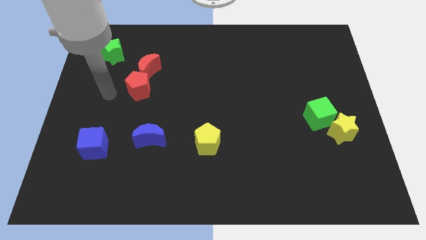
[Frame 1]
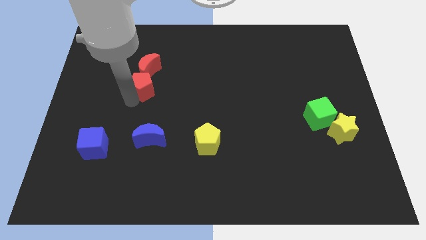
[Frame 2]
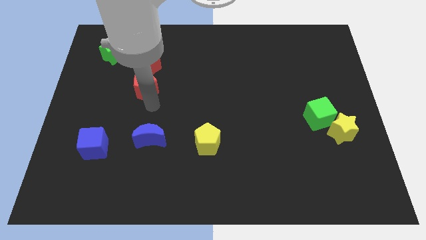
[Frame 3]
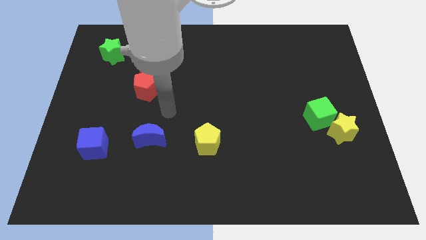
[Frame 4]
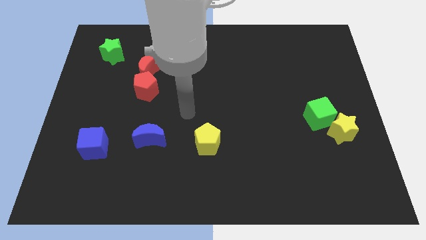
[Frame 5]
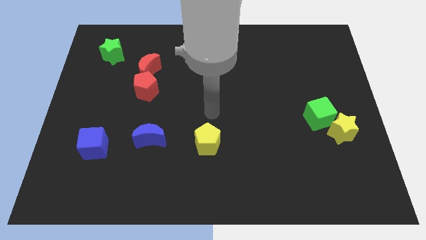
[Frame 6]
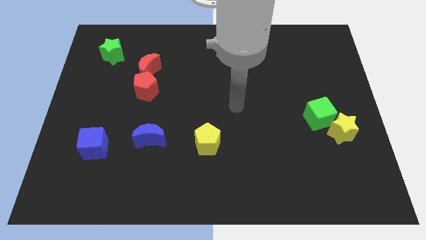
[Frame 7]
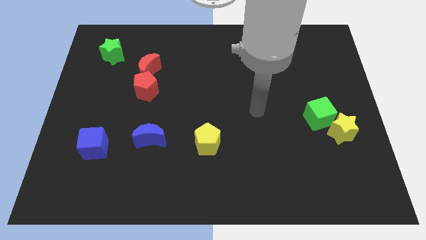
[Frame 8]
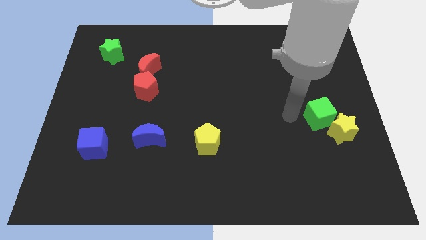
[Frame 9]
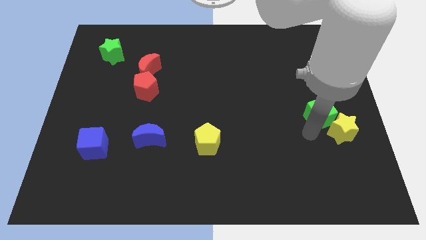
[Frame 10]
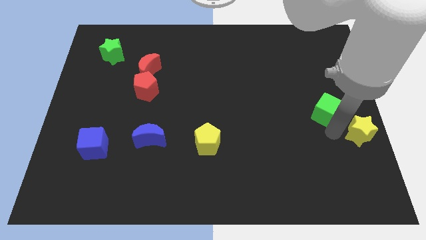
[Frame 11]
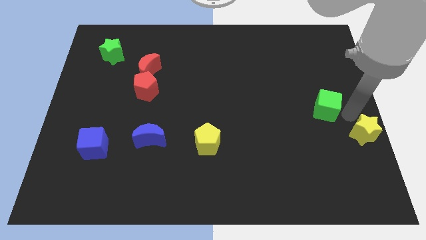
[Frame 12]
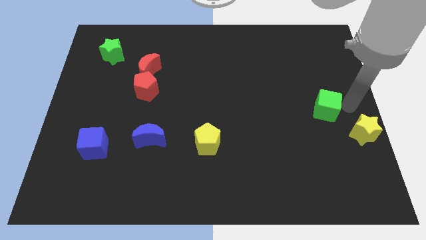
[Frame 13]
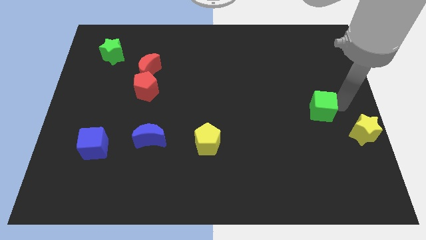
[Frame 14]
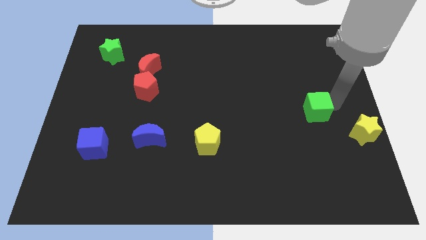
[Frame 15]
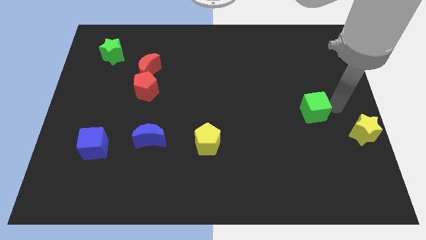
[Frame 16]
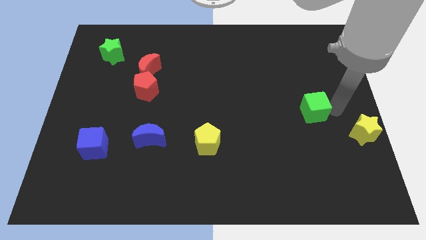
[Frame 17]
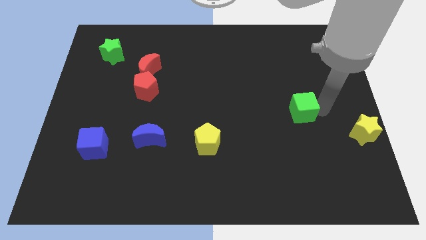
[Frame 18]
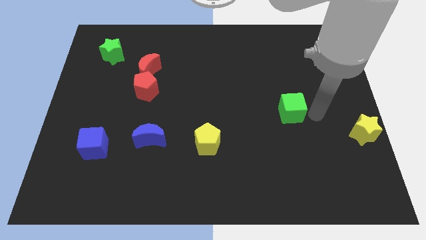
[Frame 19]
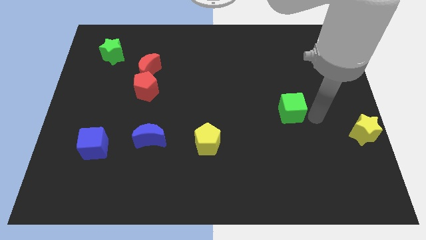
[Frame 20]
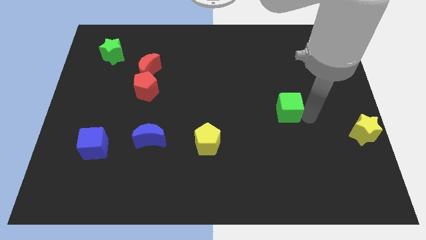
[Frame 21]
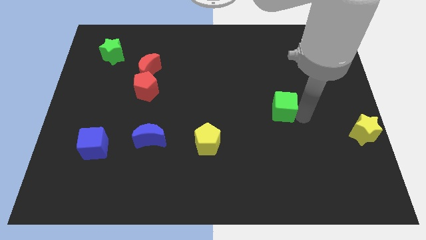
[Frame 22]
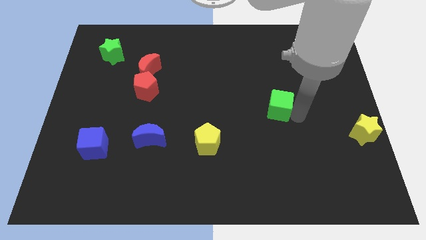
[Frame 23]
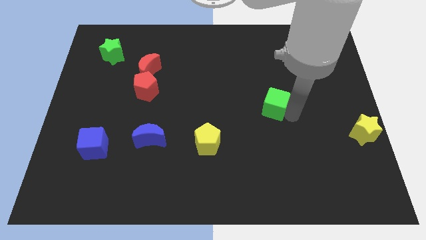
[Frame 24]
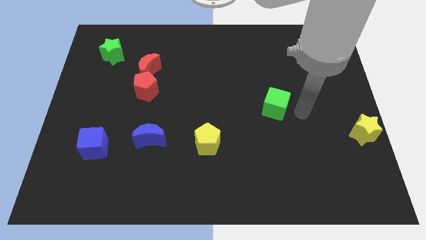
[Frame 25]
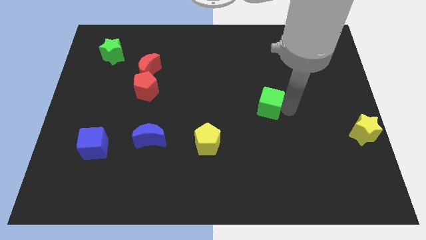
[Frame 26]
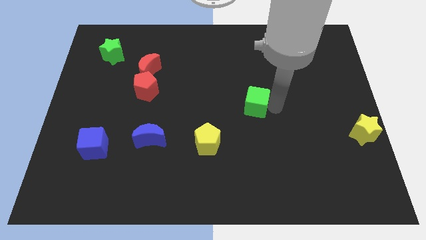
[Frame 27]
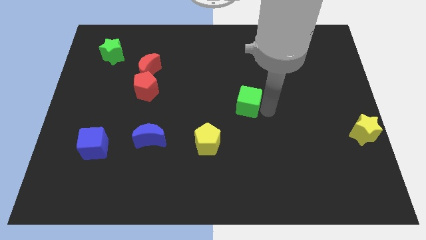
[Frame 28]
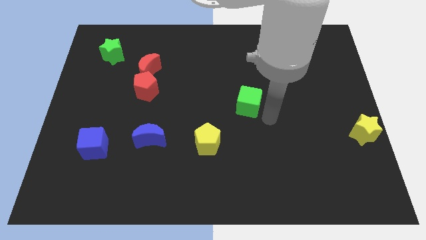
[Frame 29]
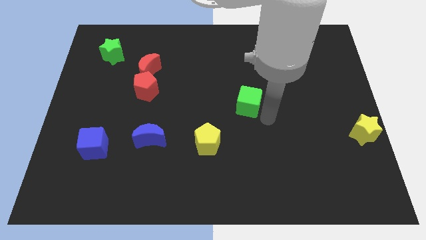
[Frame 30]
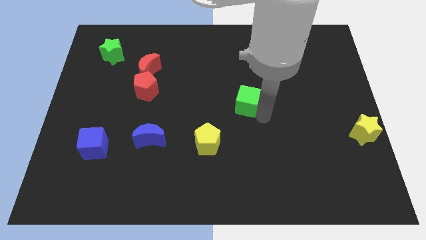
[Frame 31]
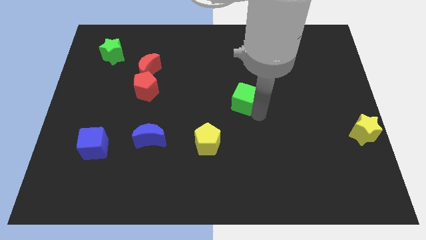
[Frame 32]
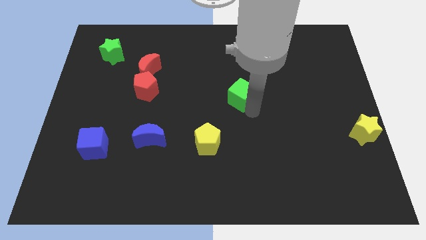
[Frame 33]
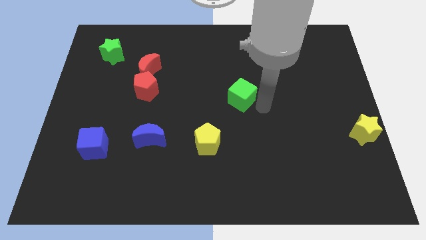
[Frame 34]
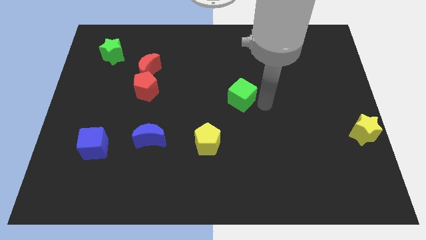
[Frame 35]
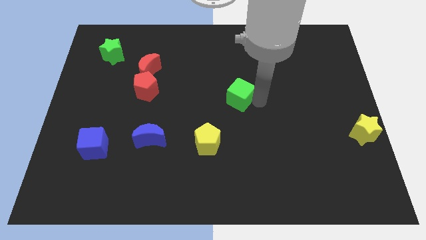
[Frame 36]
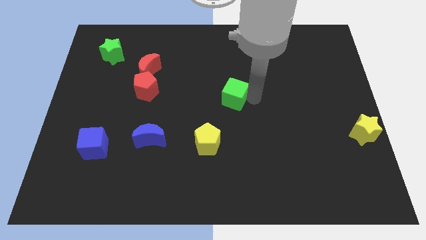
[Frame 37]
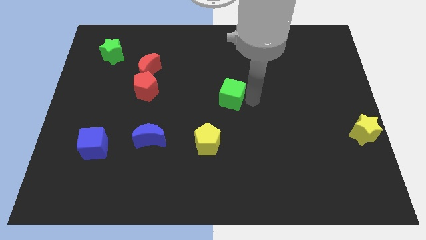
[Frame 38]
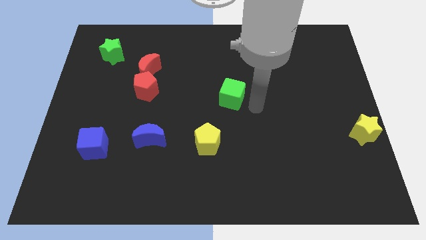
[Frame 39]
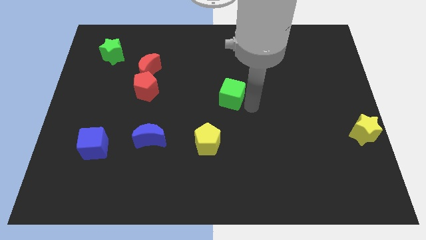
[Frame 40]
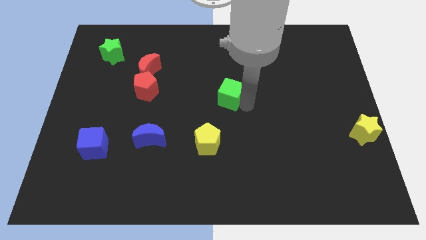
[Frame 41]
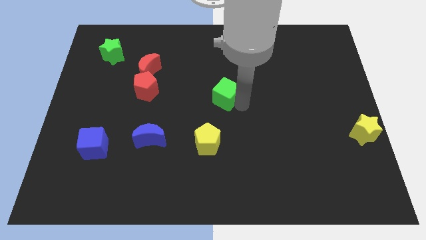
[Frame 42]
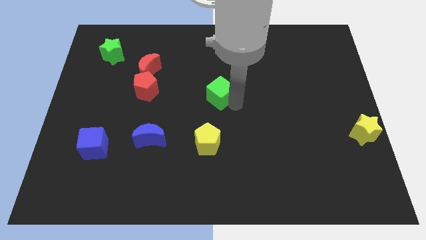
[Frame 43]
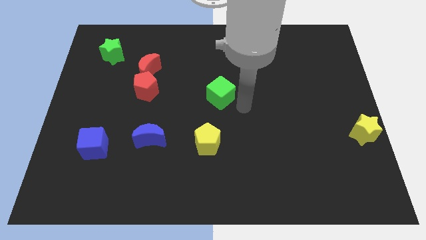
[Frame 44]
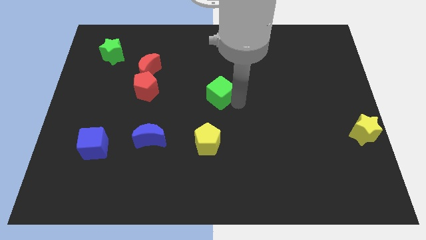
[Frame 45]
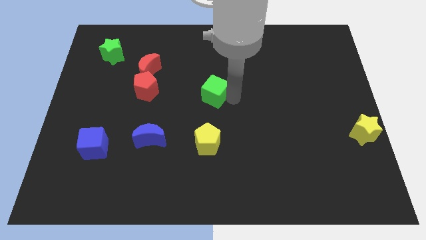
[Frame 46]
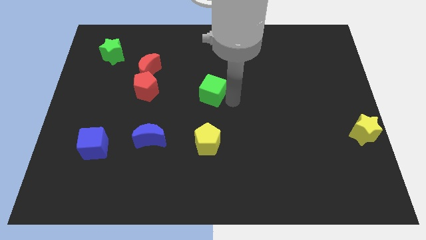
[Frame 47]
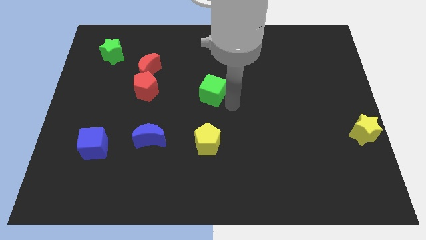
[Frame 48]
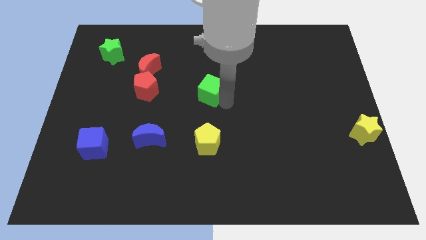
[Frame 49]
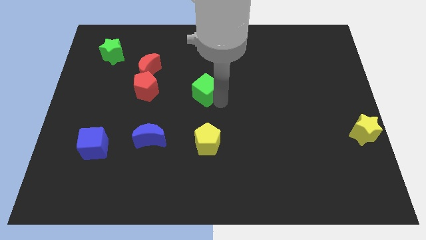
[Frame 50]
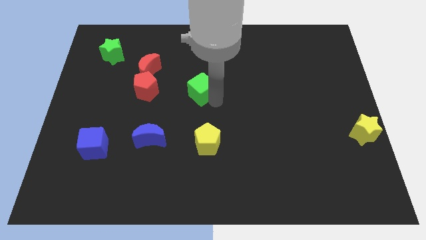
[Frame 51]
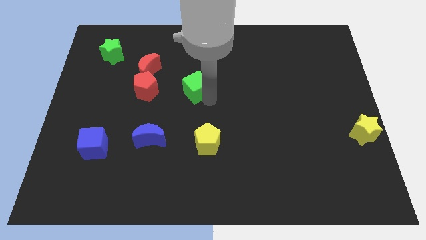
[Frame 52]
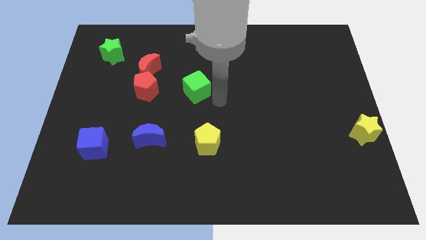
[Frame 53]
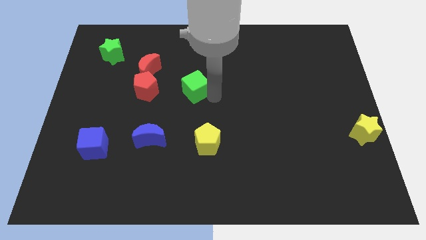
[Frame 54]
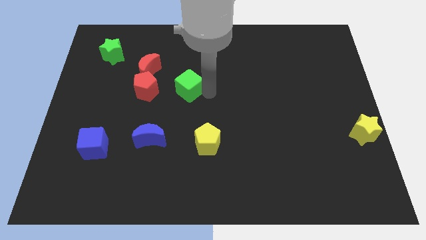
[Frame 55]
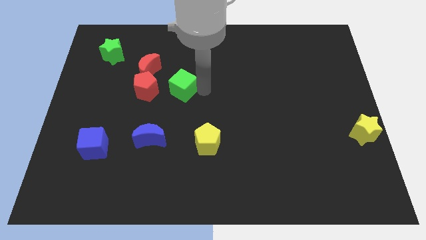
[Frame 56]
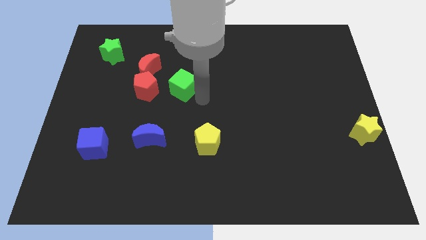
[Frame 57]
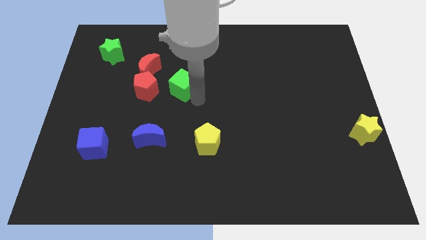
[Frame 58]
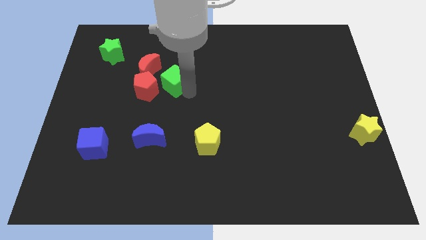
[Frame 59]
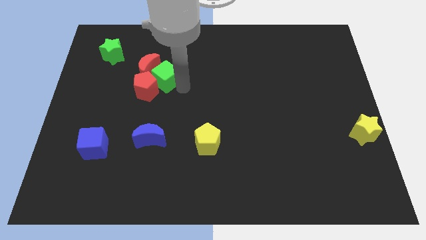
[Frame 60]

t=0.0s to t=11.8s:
put the green cube to the red moon

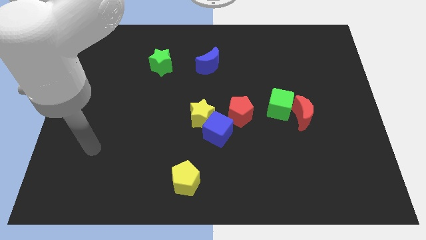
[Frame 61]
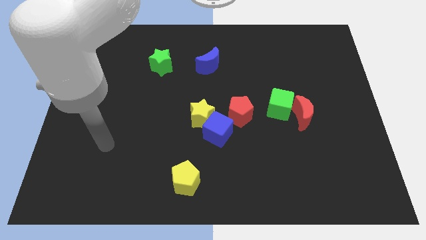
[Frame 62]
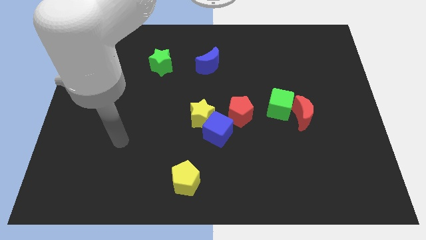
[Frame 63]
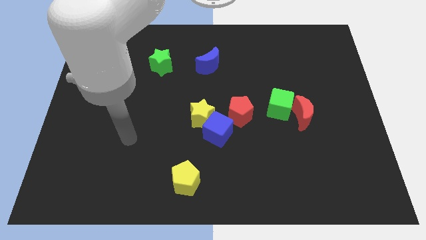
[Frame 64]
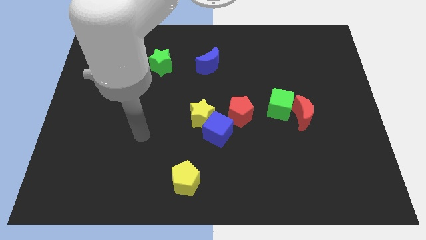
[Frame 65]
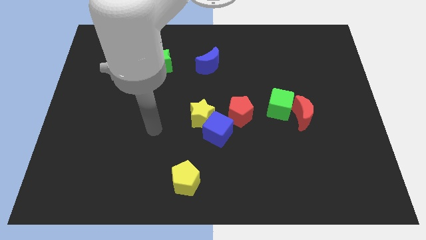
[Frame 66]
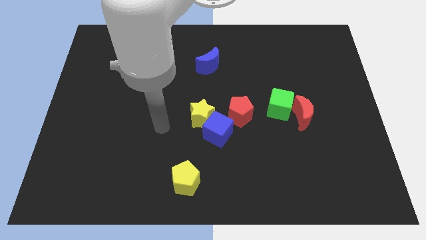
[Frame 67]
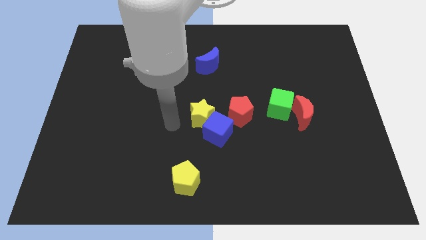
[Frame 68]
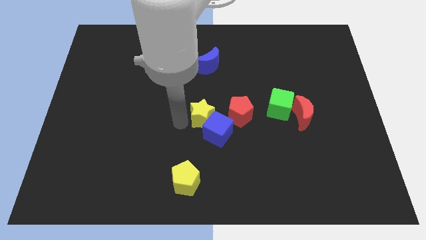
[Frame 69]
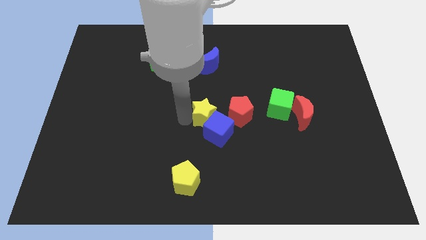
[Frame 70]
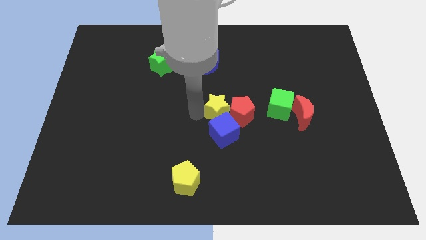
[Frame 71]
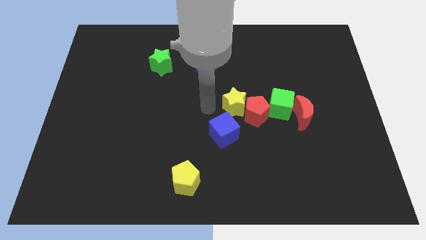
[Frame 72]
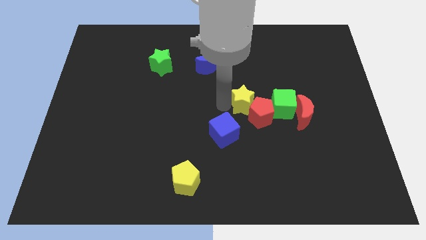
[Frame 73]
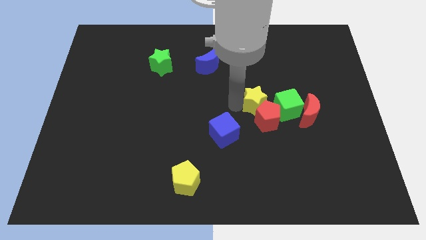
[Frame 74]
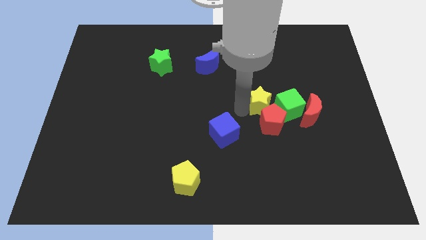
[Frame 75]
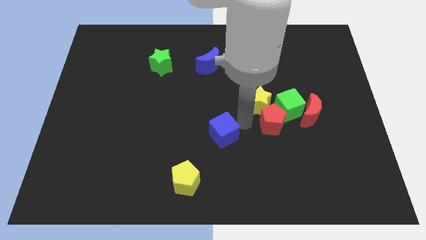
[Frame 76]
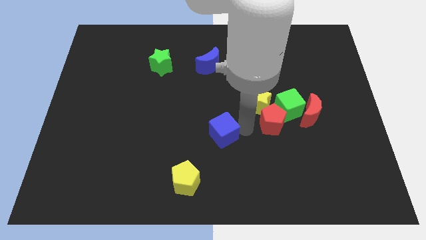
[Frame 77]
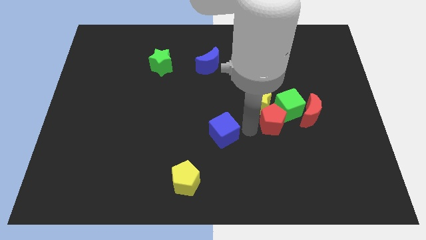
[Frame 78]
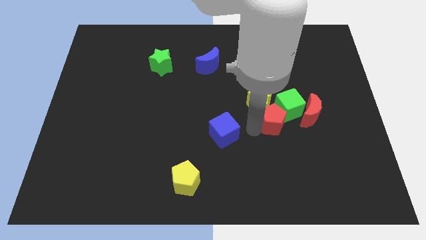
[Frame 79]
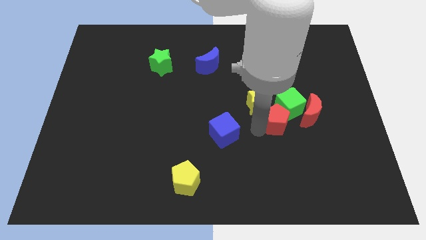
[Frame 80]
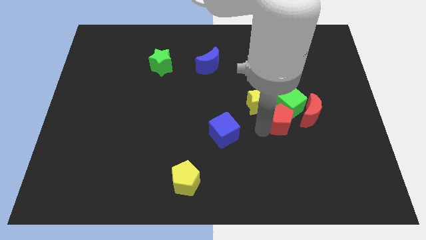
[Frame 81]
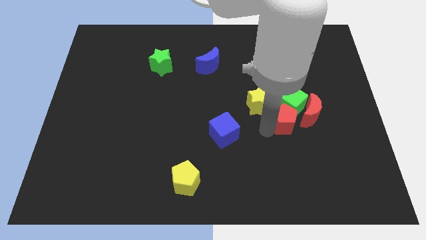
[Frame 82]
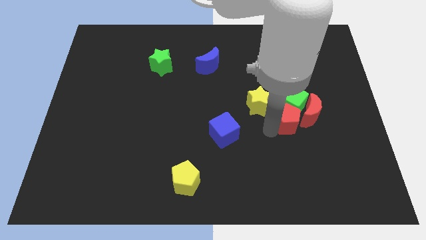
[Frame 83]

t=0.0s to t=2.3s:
put the red pentagon close to the red moon
